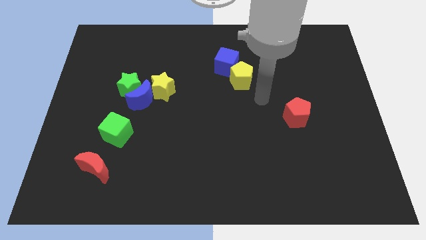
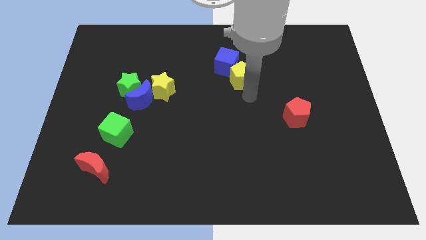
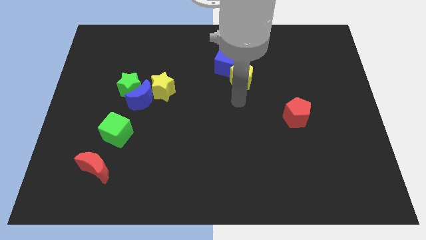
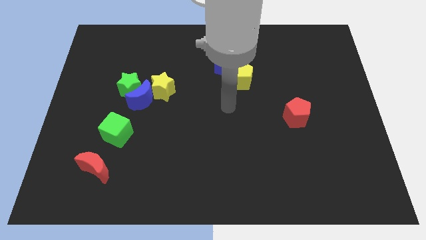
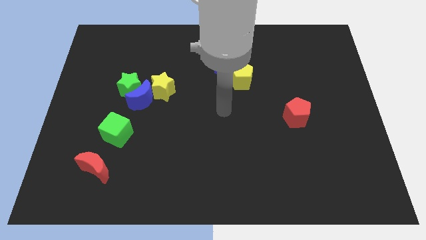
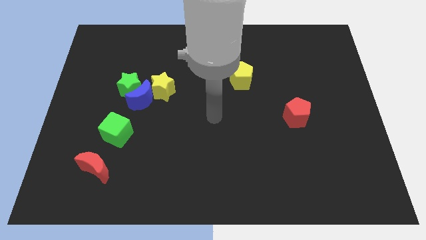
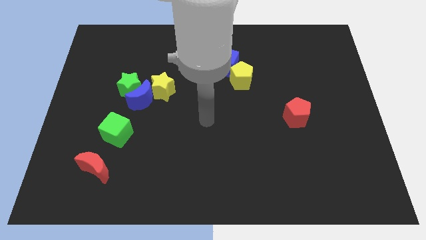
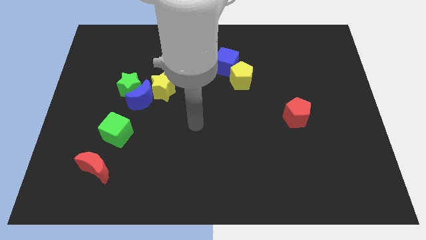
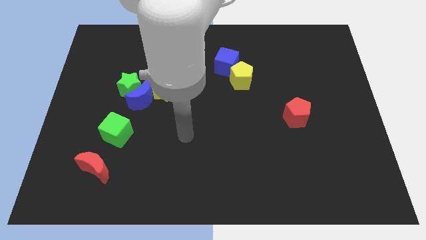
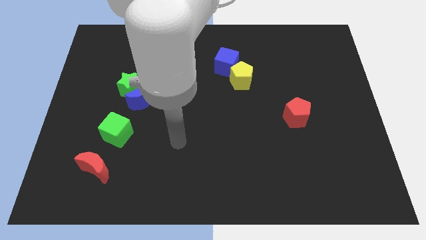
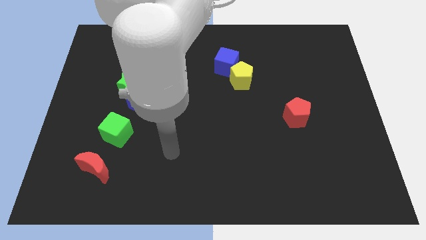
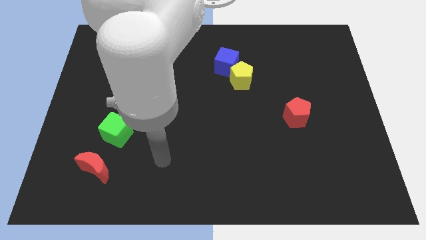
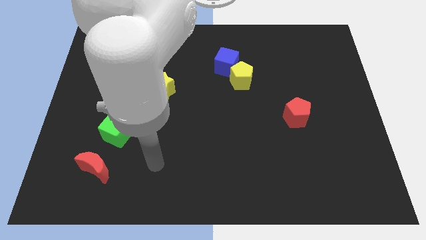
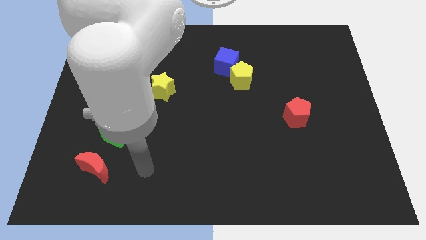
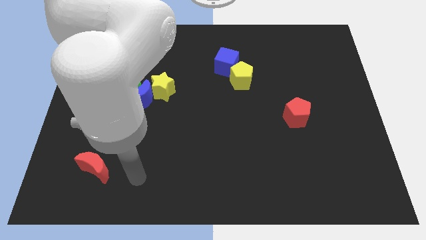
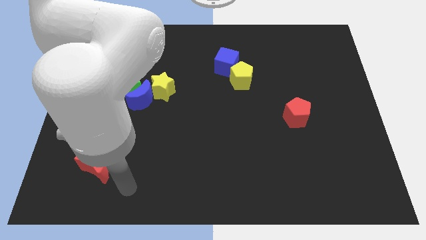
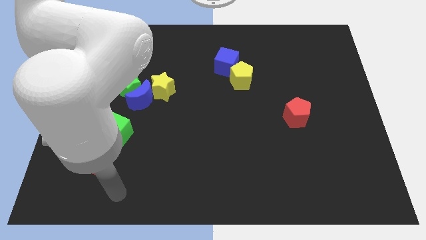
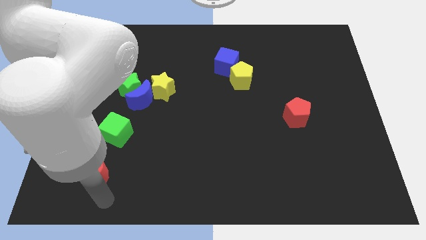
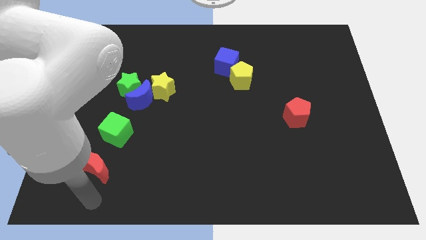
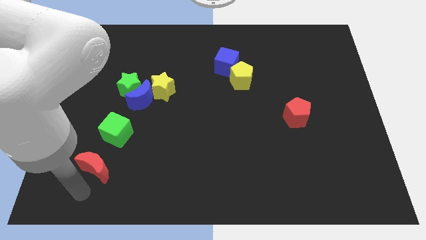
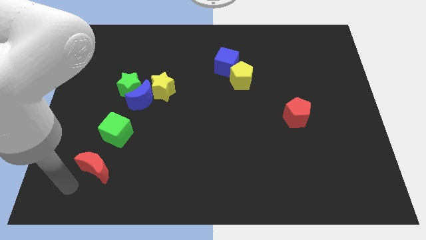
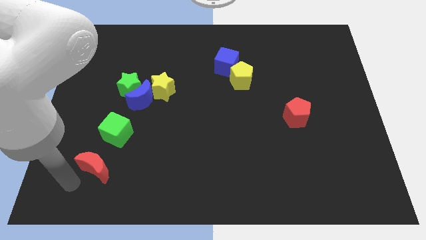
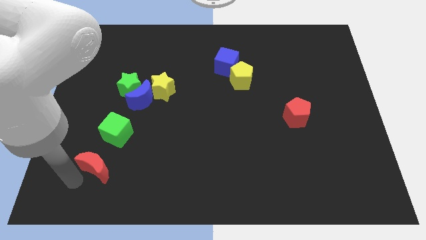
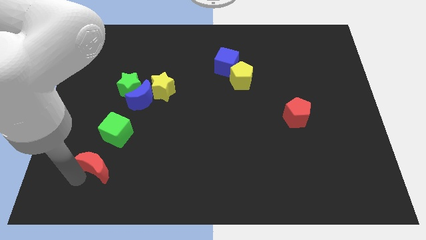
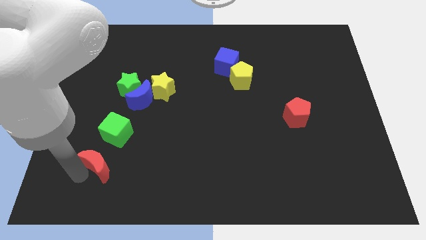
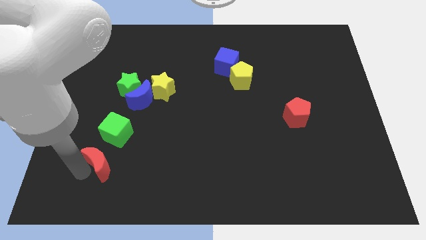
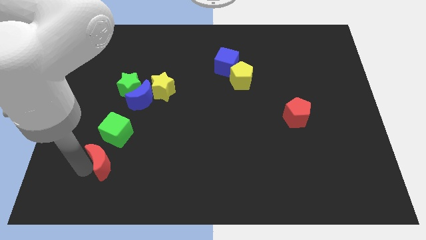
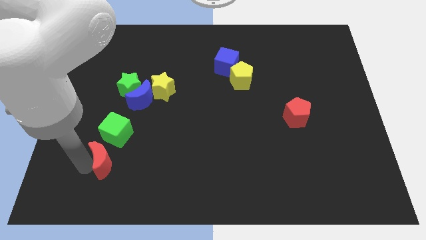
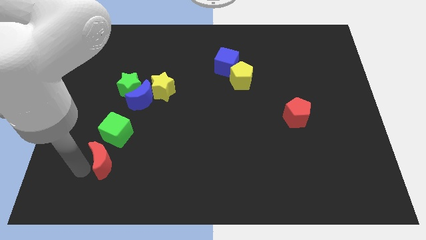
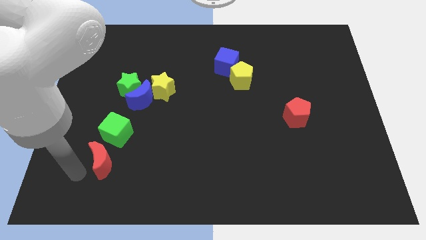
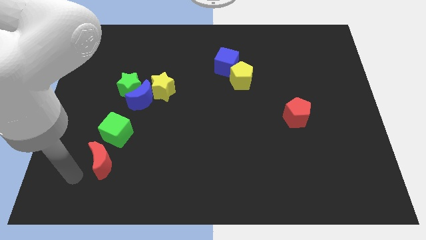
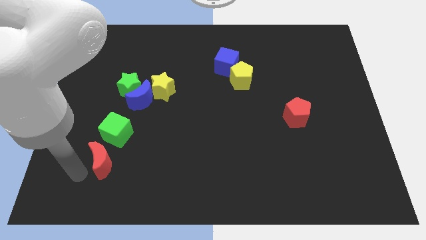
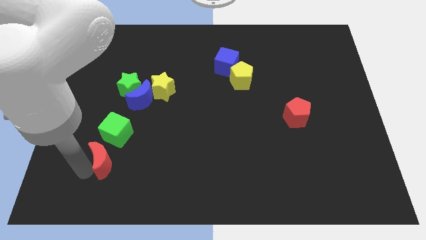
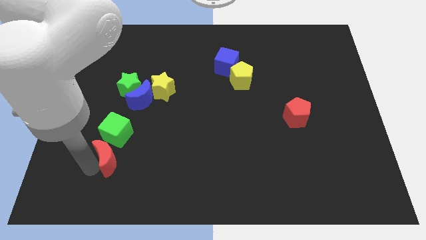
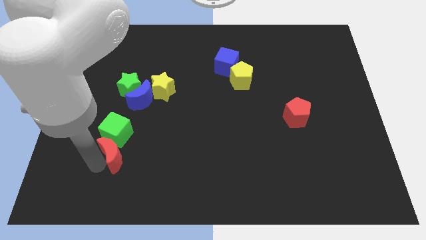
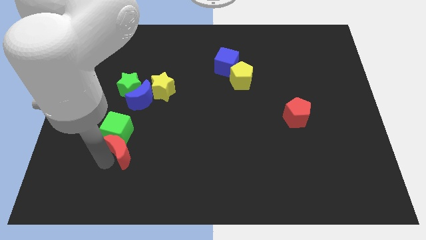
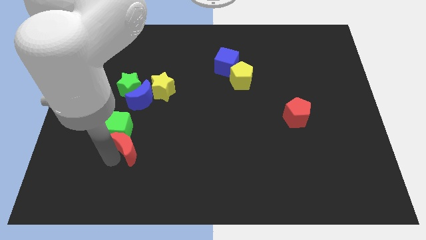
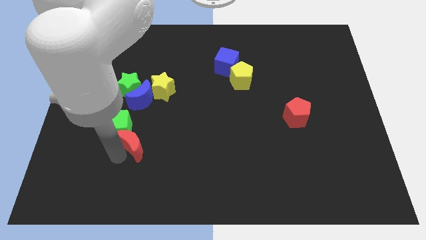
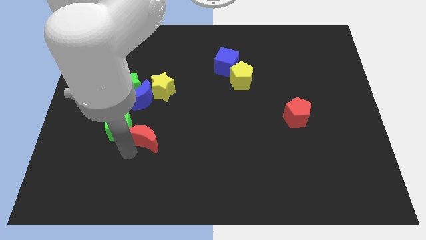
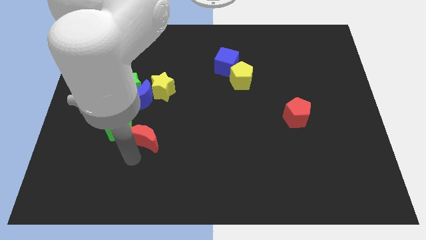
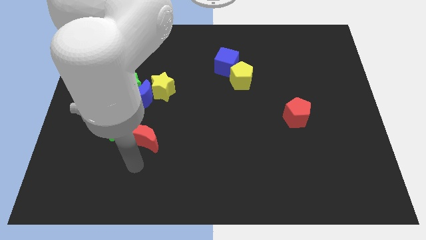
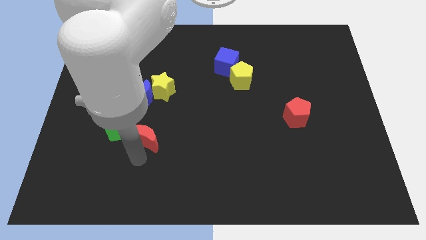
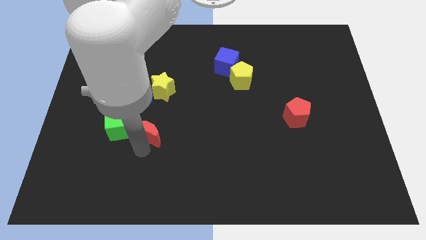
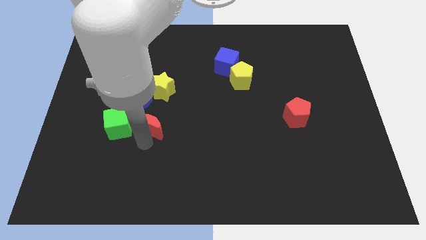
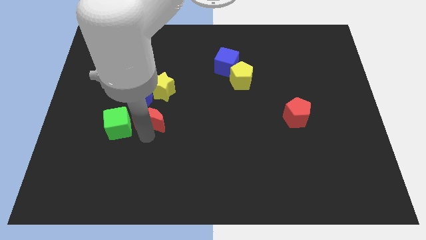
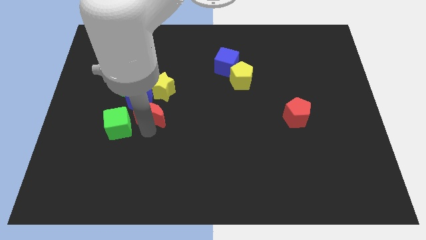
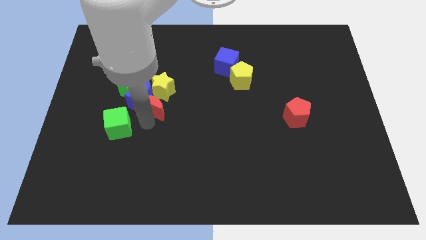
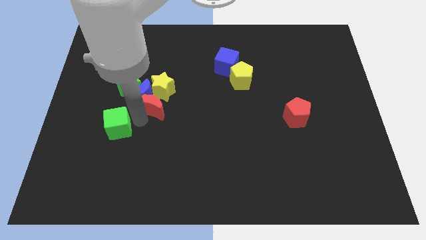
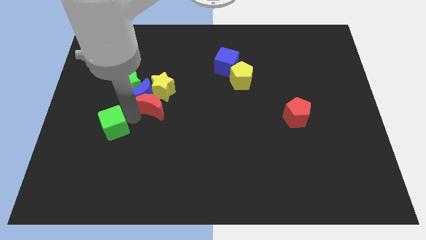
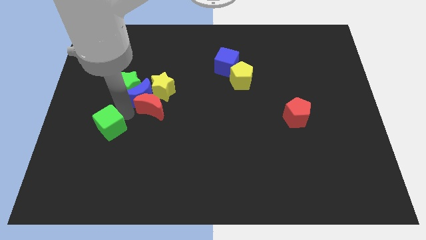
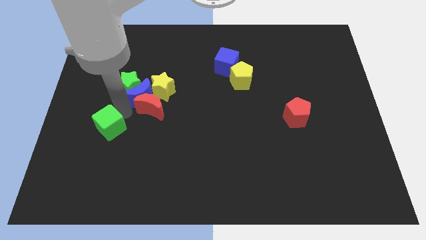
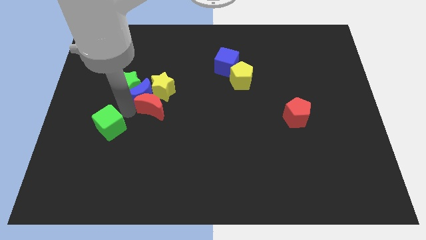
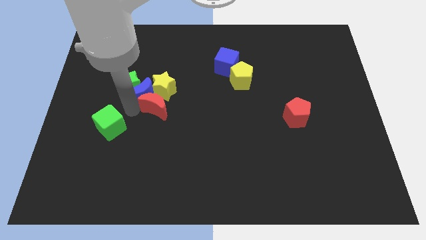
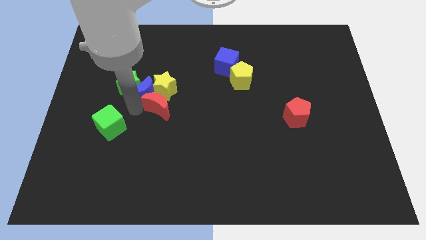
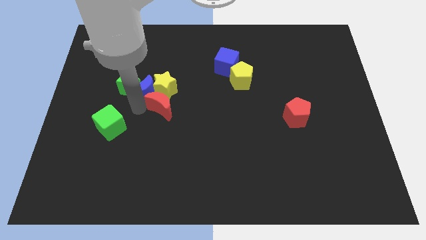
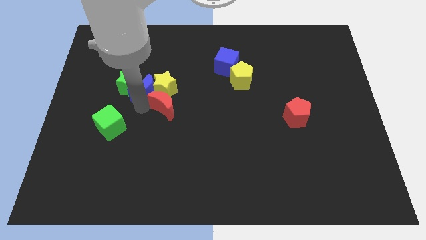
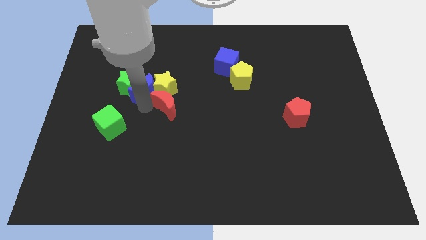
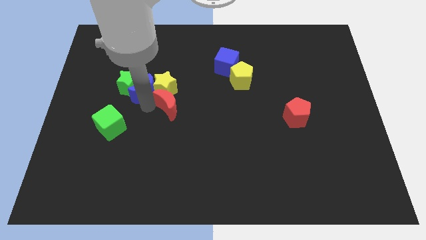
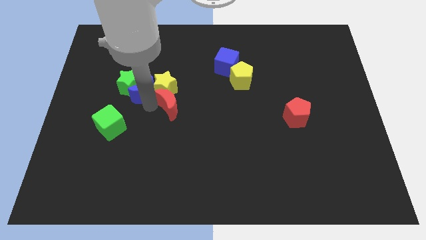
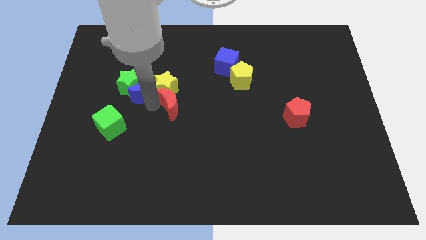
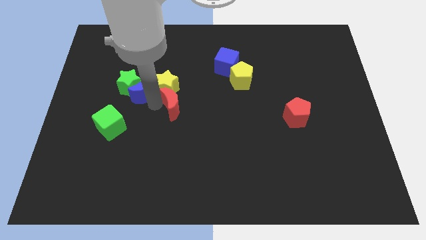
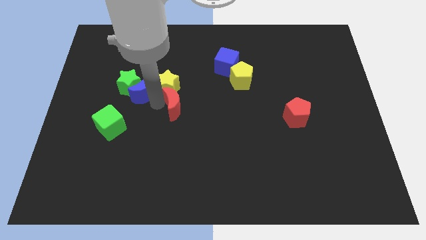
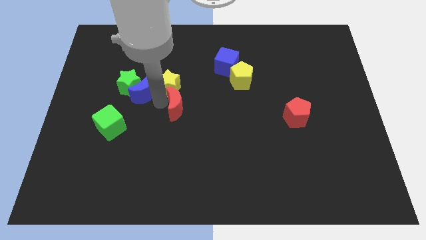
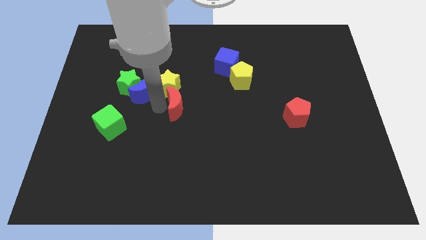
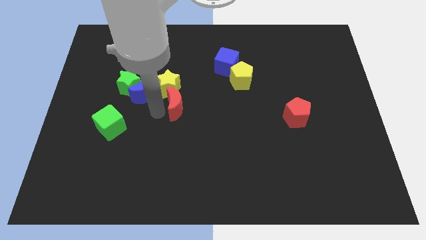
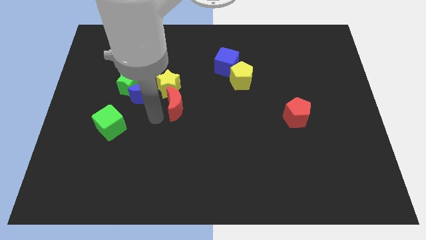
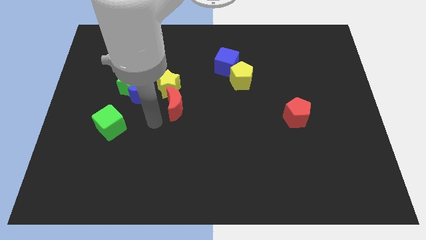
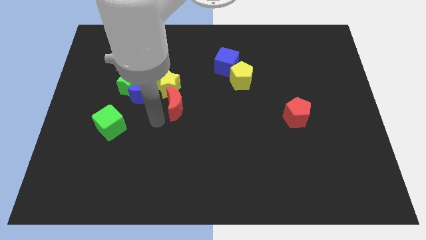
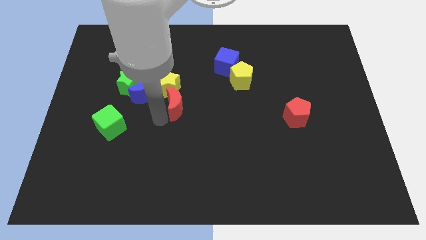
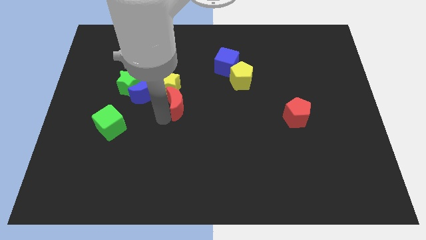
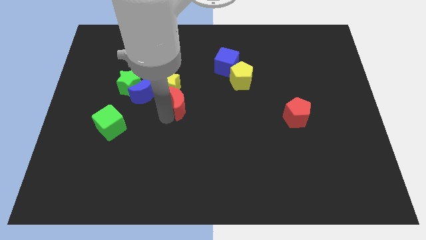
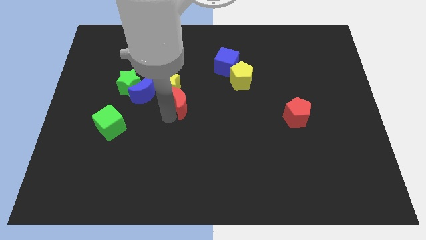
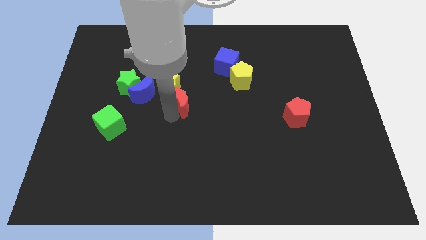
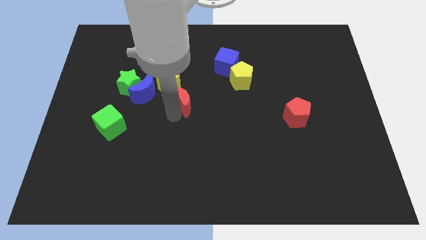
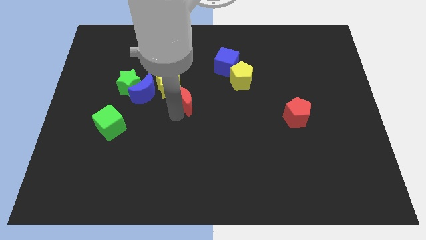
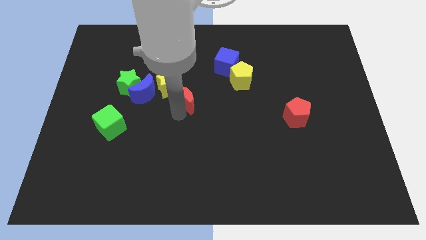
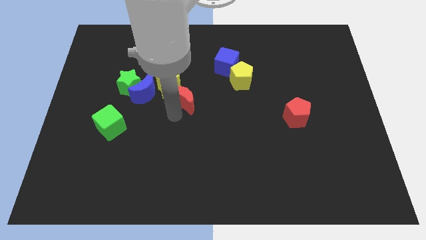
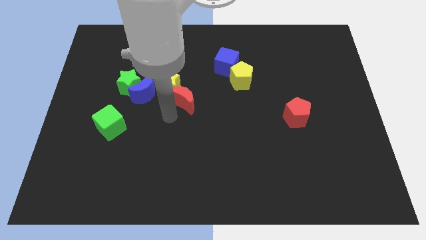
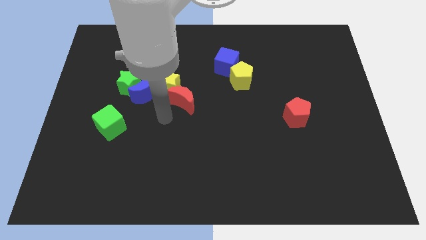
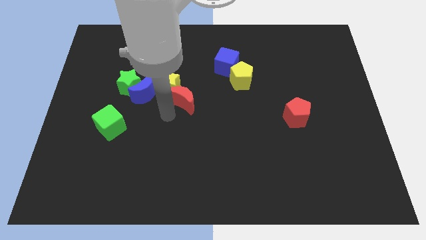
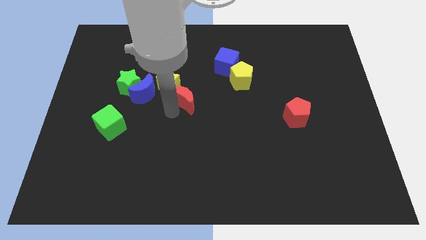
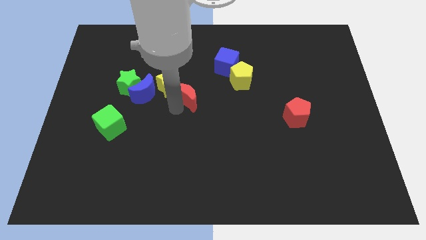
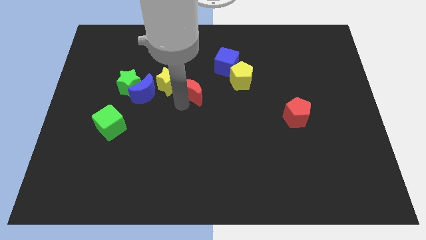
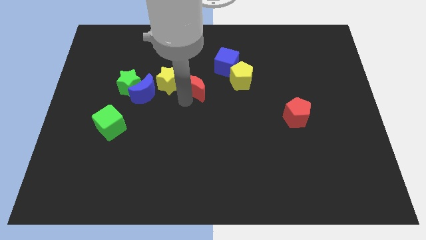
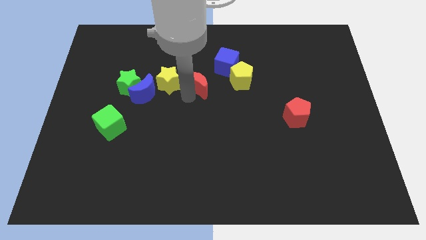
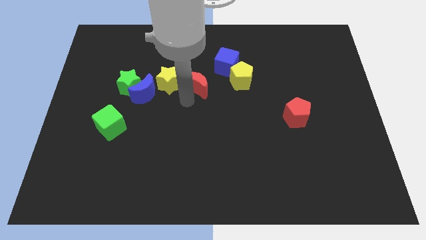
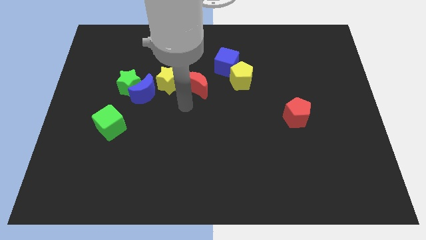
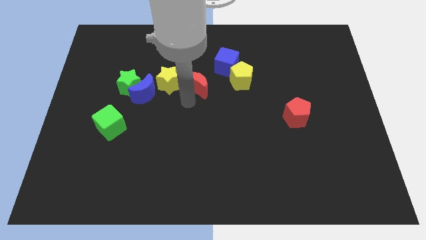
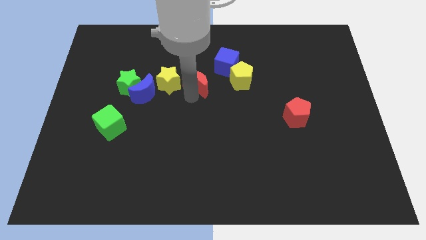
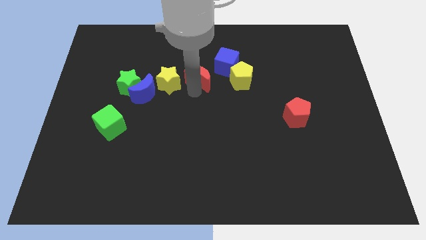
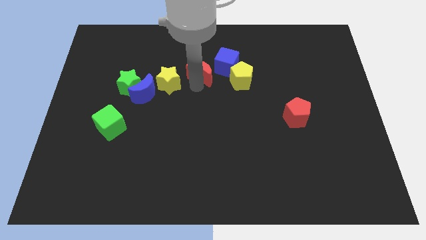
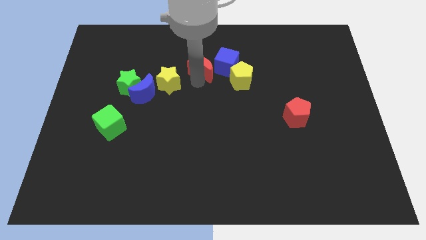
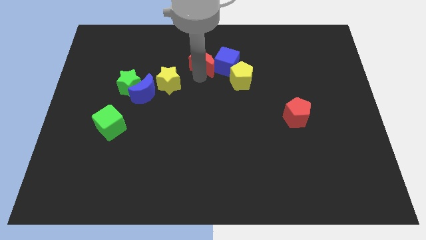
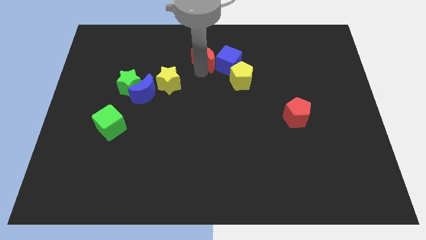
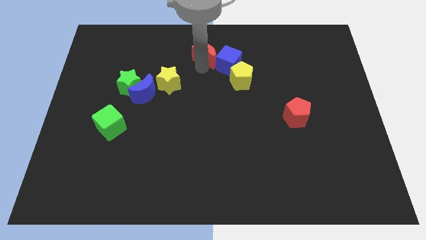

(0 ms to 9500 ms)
slide the red moon to the towards your base
